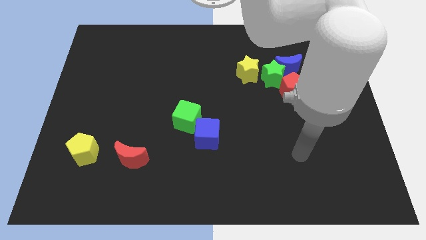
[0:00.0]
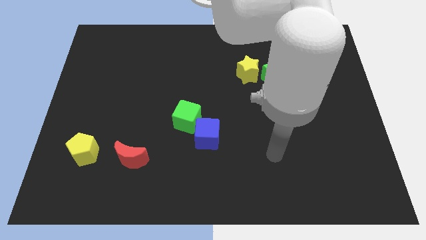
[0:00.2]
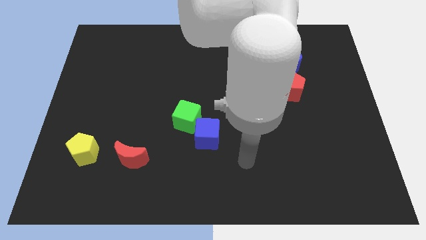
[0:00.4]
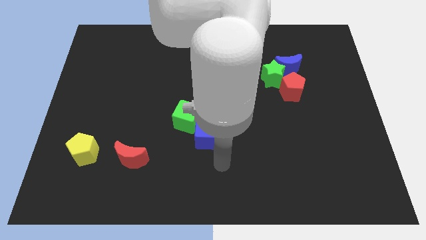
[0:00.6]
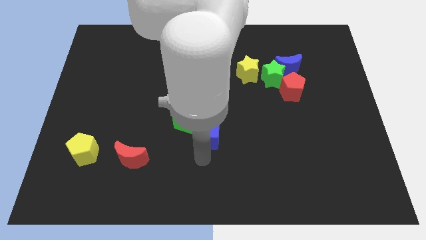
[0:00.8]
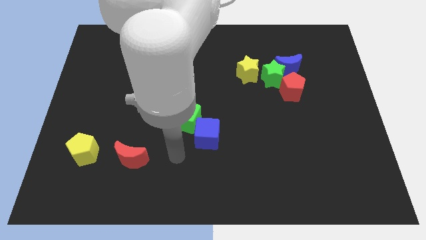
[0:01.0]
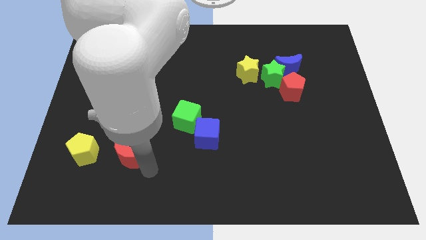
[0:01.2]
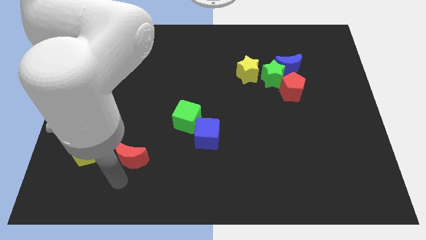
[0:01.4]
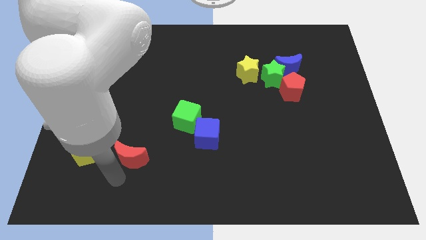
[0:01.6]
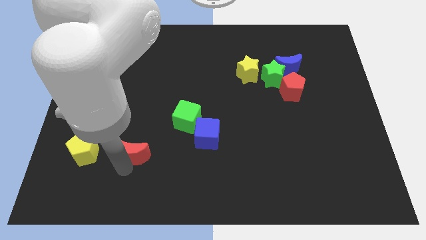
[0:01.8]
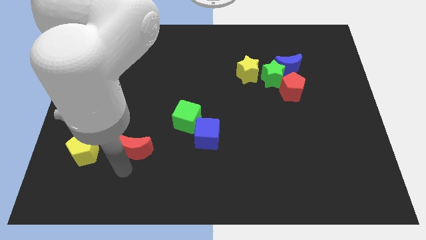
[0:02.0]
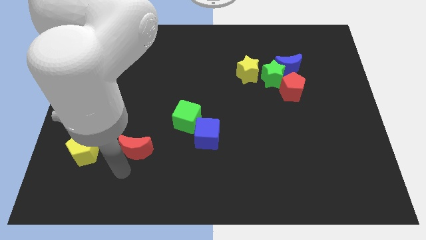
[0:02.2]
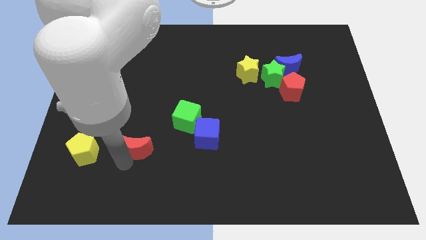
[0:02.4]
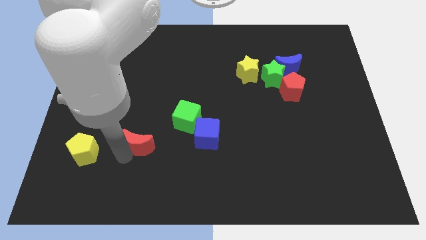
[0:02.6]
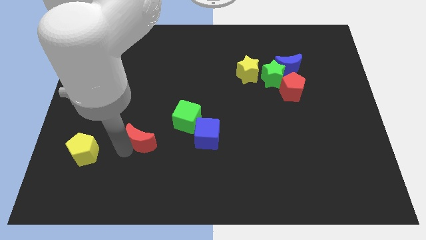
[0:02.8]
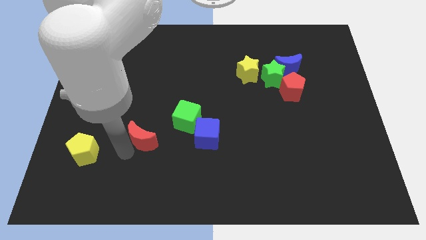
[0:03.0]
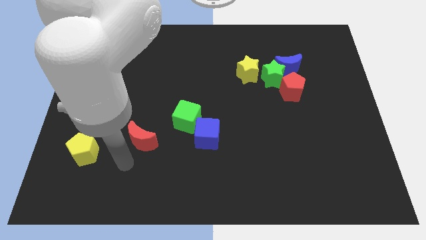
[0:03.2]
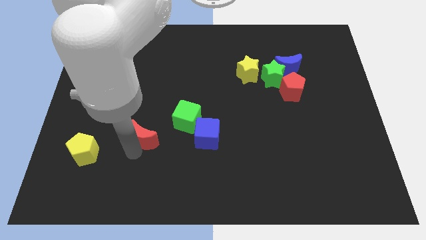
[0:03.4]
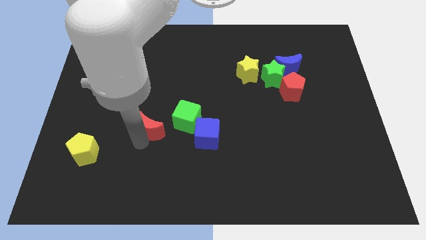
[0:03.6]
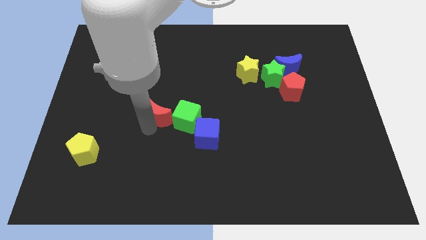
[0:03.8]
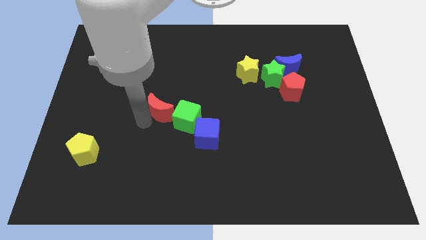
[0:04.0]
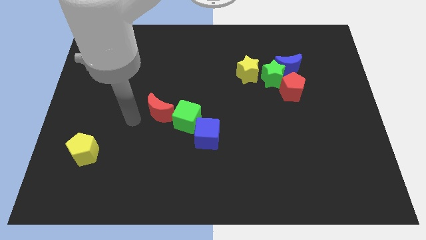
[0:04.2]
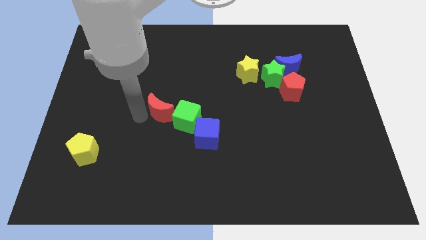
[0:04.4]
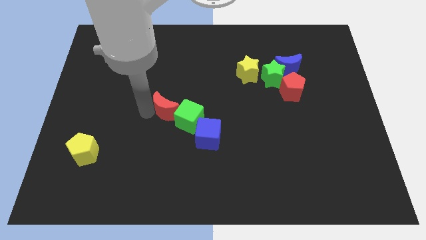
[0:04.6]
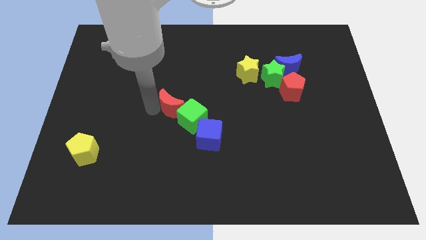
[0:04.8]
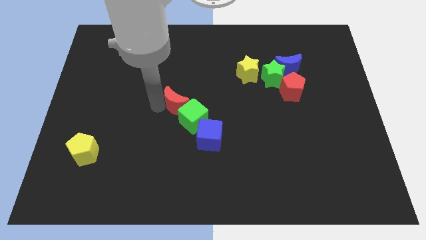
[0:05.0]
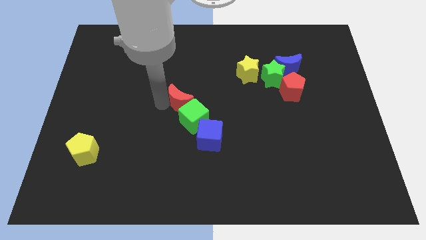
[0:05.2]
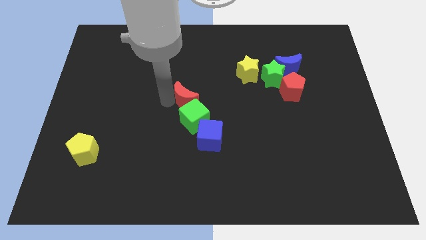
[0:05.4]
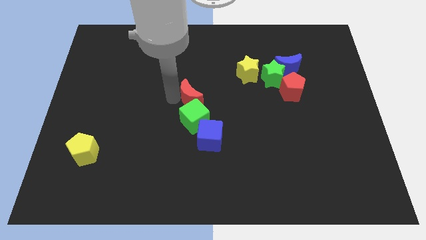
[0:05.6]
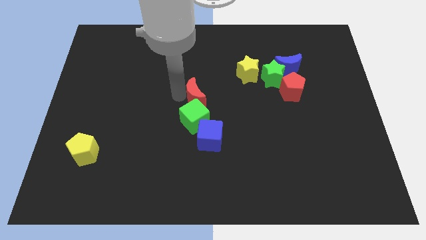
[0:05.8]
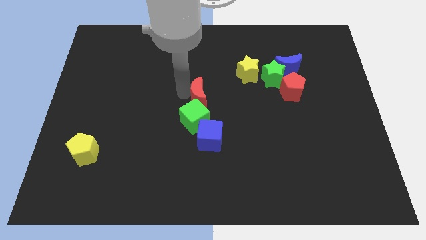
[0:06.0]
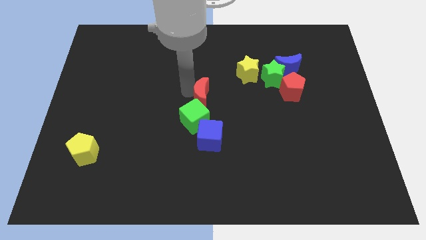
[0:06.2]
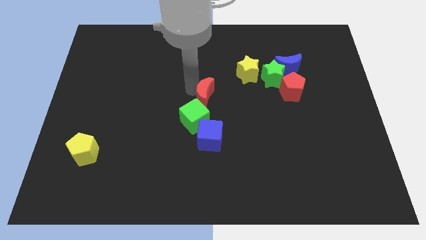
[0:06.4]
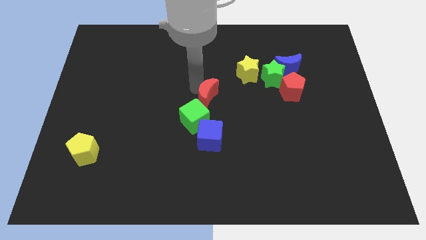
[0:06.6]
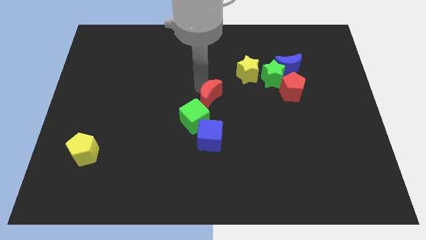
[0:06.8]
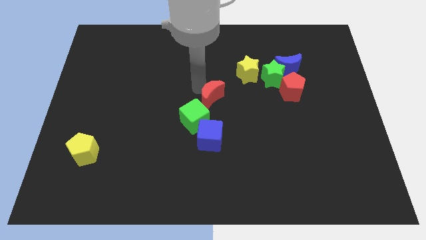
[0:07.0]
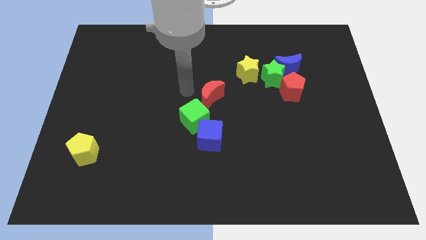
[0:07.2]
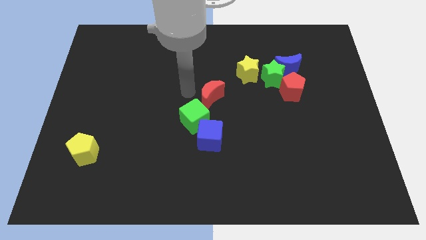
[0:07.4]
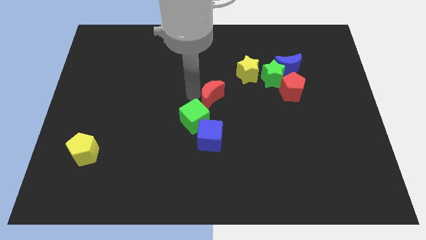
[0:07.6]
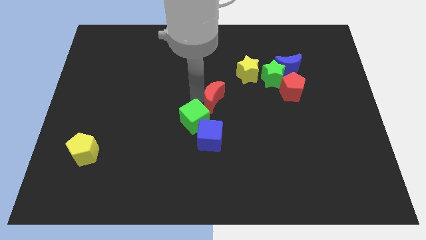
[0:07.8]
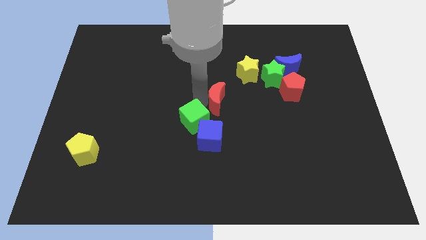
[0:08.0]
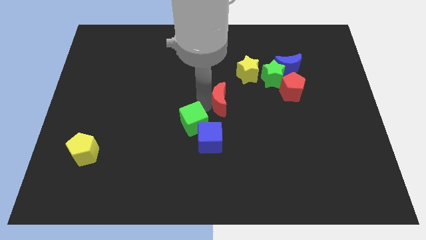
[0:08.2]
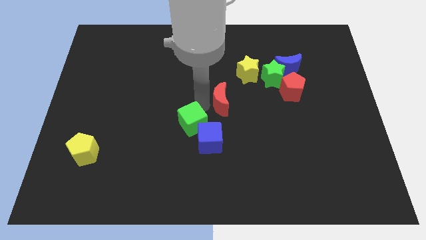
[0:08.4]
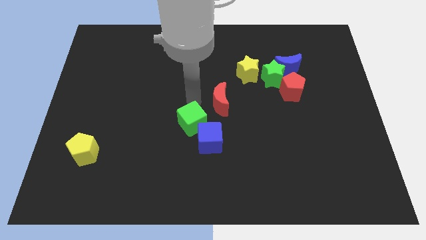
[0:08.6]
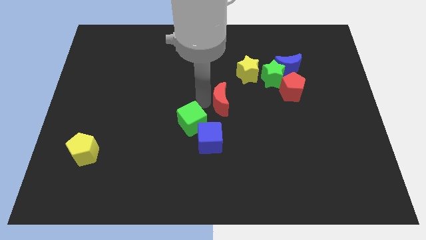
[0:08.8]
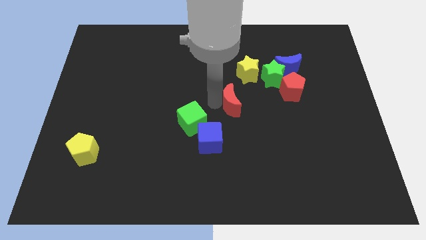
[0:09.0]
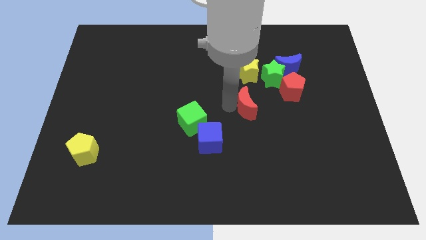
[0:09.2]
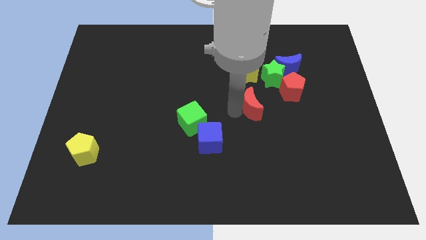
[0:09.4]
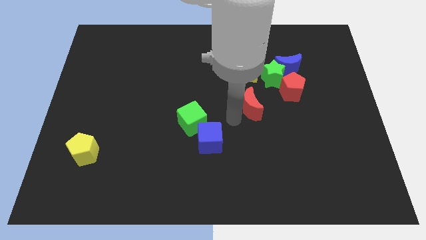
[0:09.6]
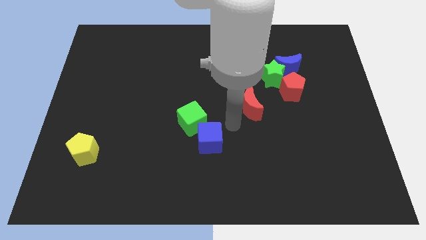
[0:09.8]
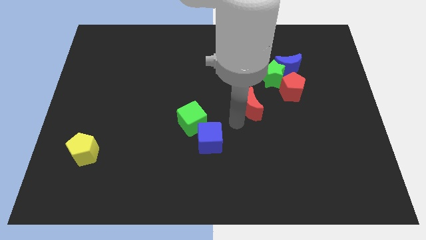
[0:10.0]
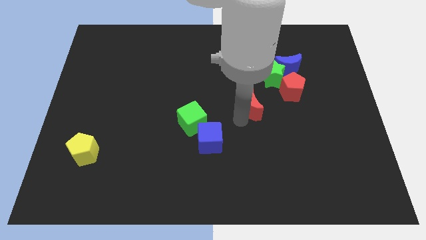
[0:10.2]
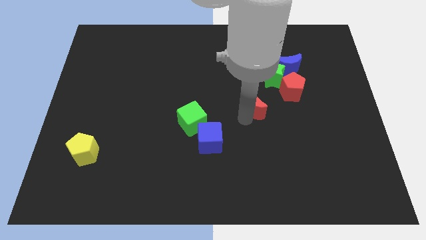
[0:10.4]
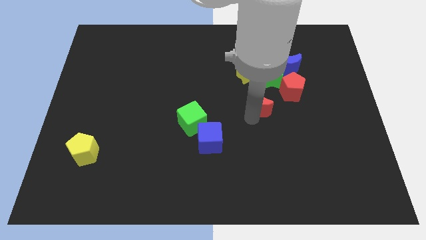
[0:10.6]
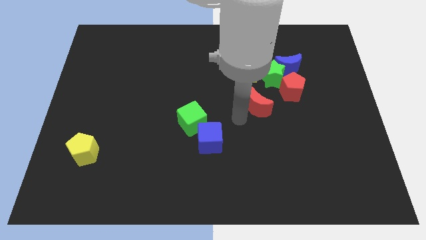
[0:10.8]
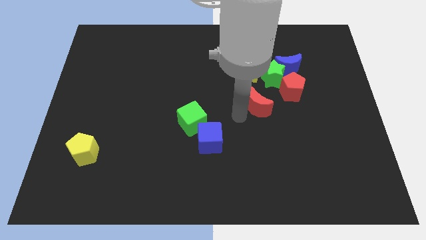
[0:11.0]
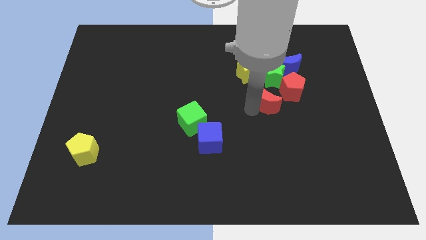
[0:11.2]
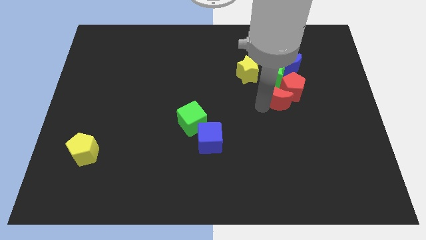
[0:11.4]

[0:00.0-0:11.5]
slide the red moon to the red pentagon

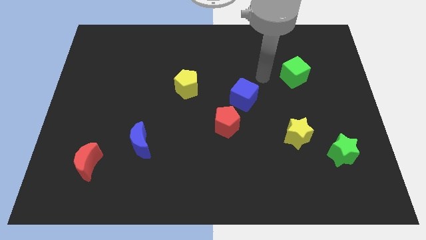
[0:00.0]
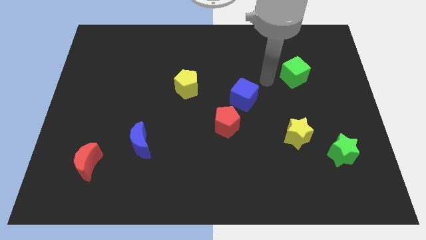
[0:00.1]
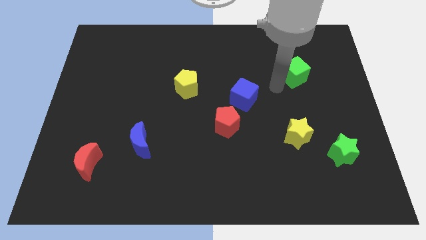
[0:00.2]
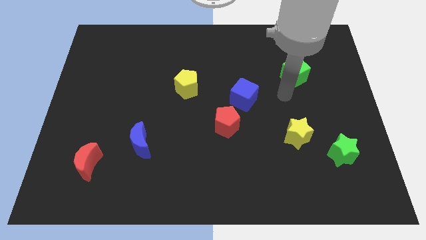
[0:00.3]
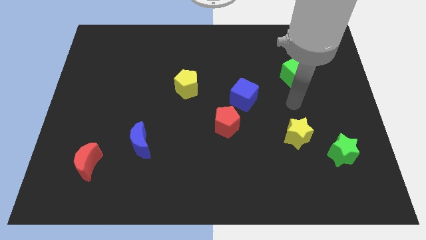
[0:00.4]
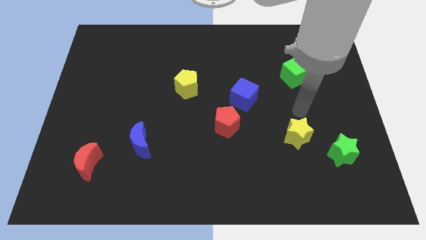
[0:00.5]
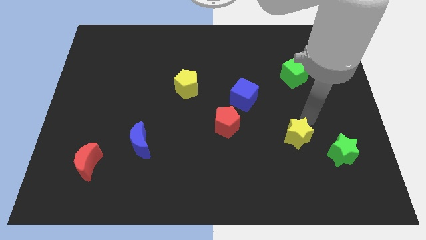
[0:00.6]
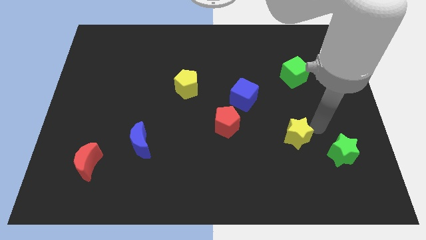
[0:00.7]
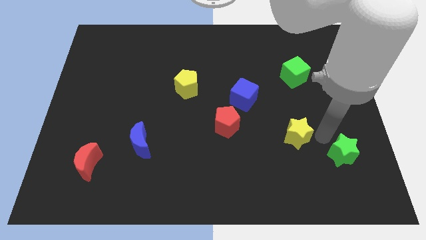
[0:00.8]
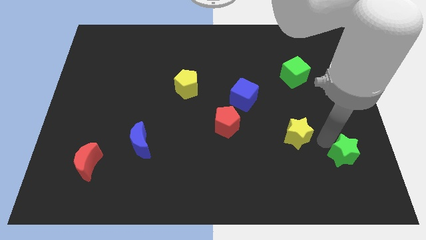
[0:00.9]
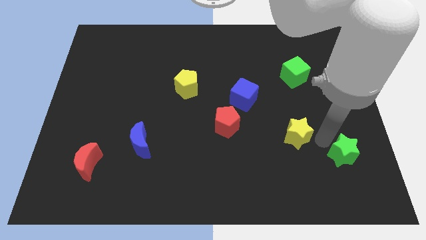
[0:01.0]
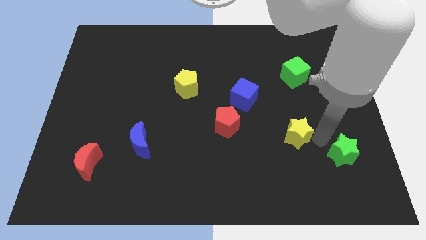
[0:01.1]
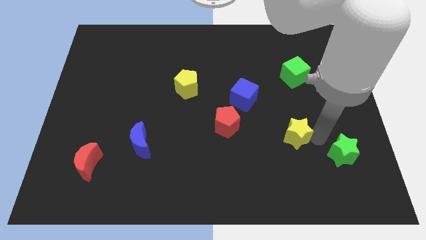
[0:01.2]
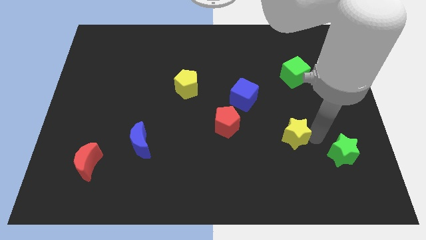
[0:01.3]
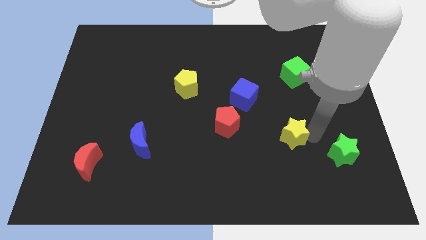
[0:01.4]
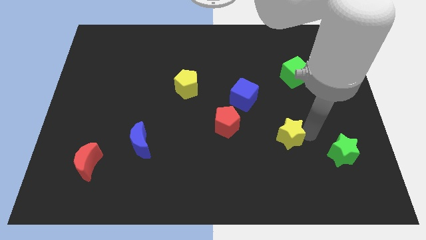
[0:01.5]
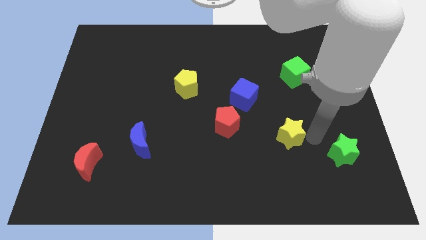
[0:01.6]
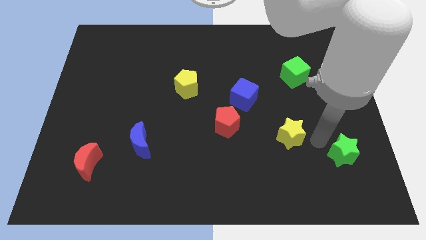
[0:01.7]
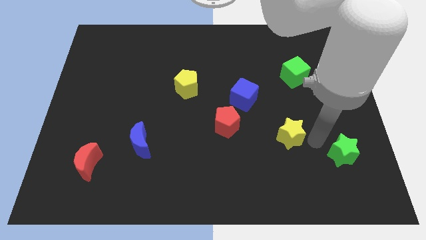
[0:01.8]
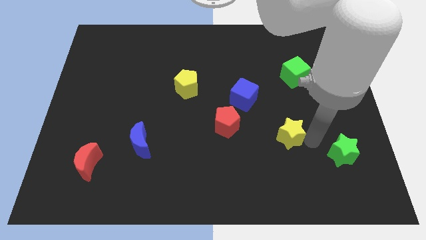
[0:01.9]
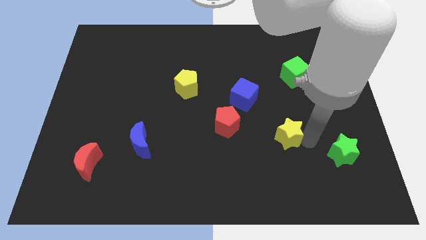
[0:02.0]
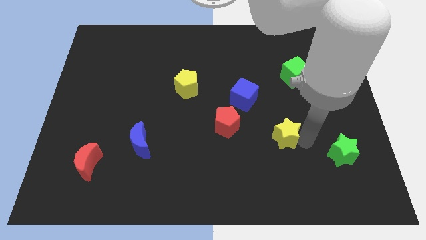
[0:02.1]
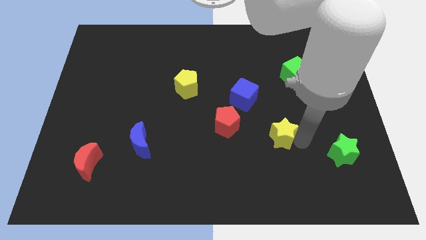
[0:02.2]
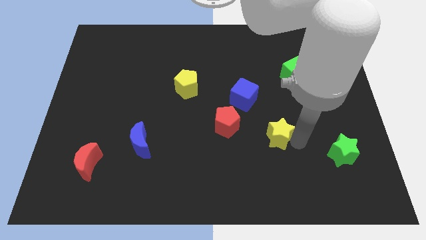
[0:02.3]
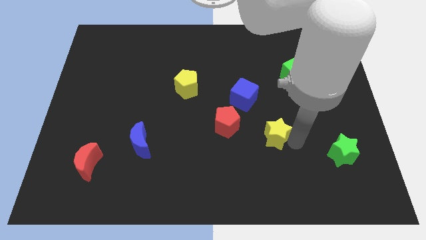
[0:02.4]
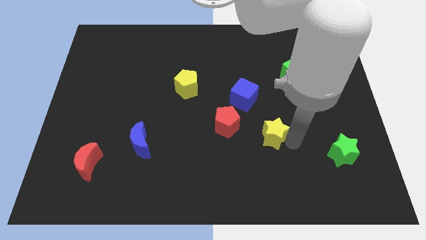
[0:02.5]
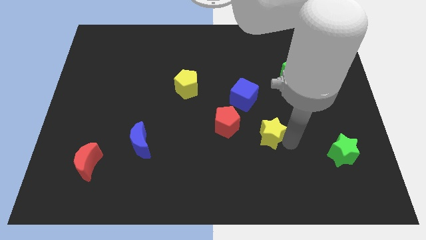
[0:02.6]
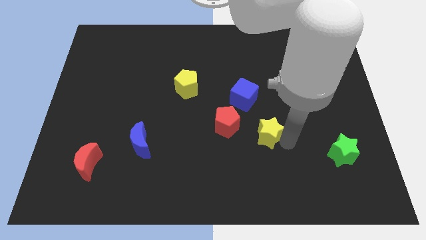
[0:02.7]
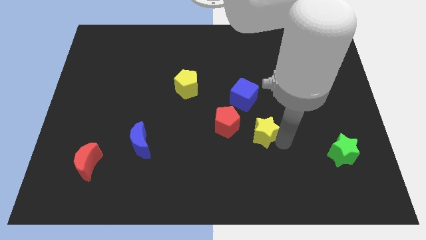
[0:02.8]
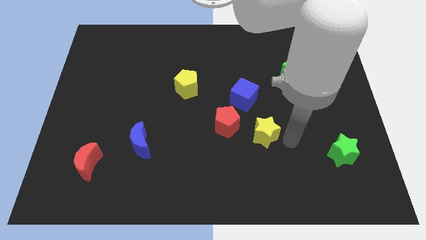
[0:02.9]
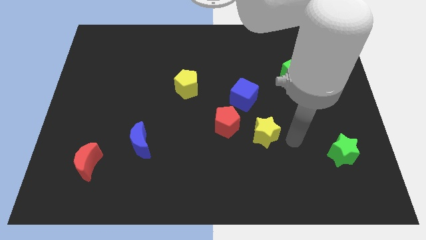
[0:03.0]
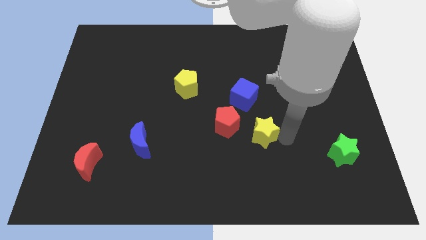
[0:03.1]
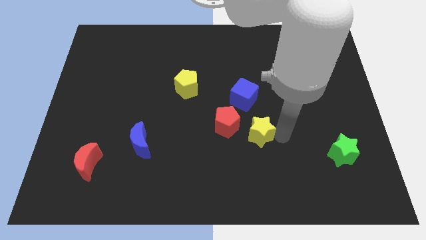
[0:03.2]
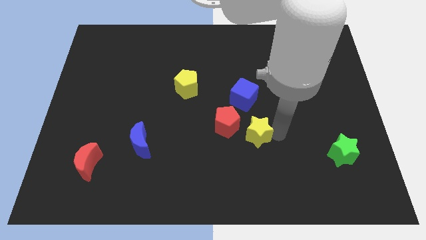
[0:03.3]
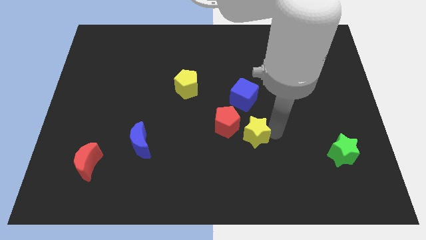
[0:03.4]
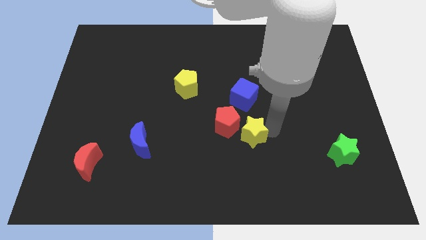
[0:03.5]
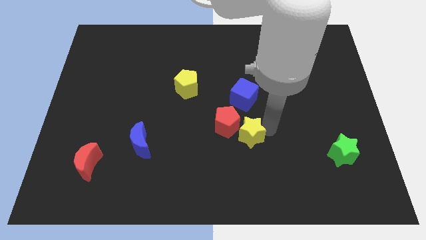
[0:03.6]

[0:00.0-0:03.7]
put the yellow star next to the red pentagon
